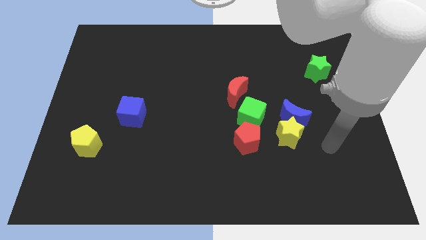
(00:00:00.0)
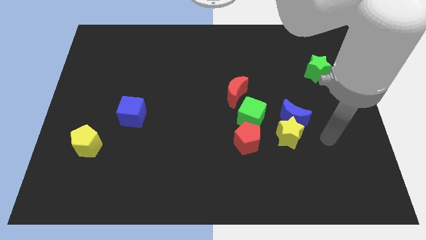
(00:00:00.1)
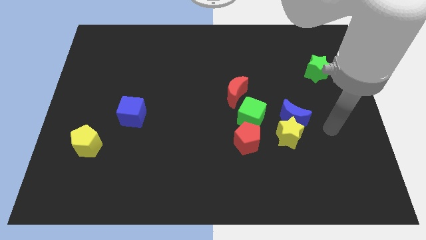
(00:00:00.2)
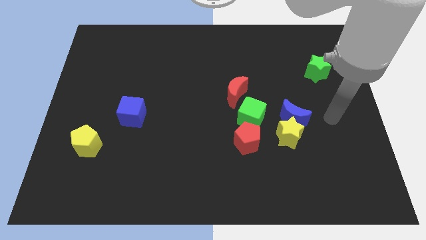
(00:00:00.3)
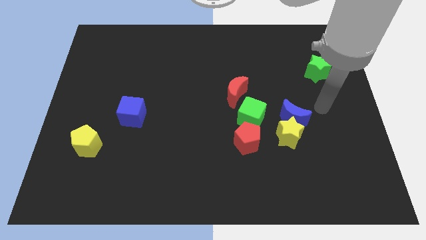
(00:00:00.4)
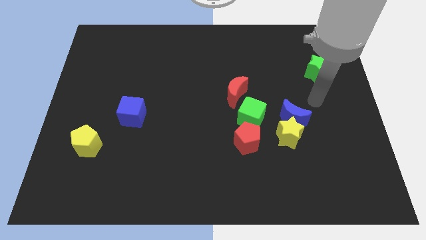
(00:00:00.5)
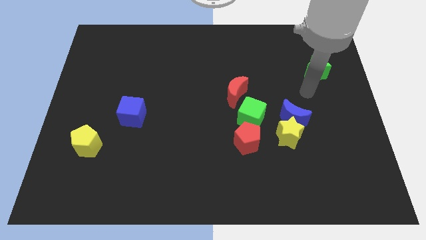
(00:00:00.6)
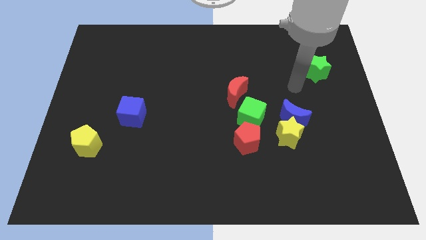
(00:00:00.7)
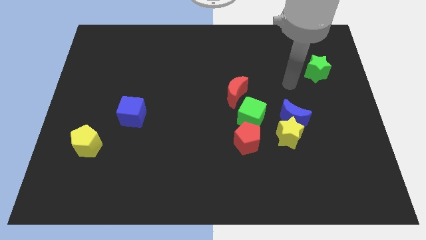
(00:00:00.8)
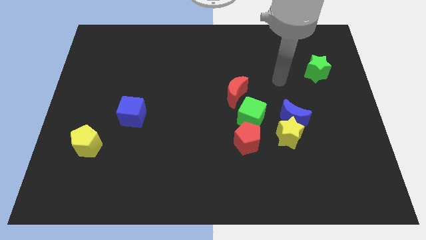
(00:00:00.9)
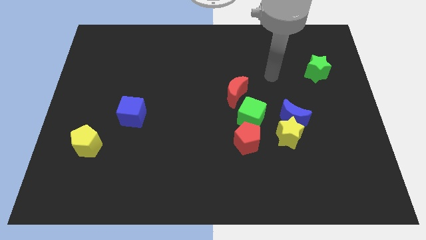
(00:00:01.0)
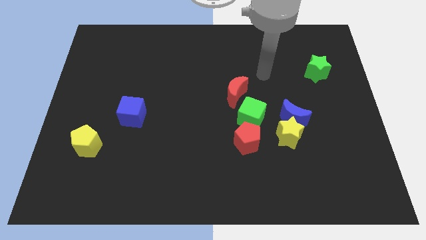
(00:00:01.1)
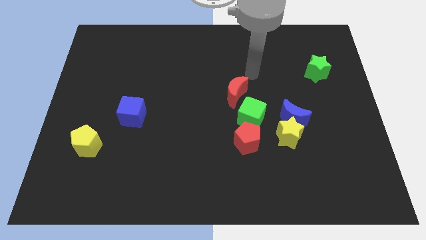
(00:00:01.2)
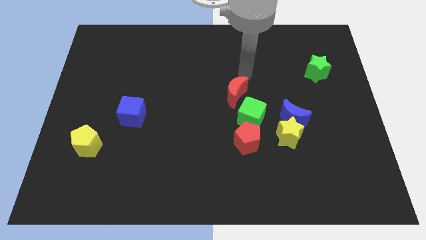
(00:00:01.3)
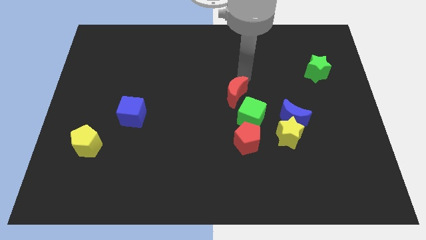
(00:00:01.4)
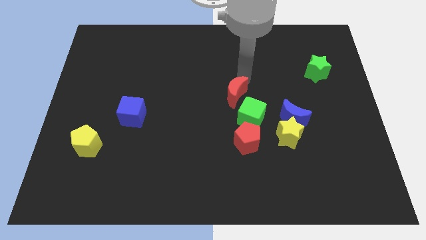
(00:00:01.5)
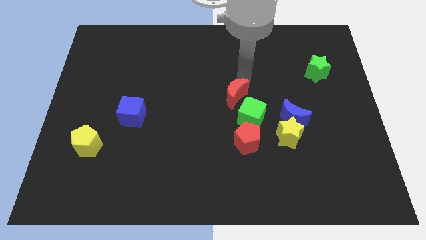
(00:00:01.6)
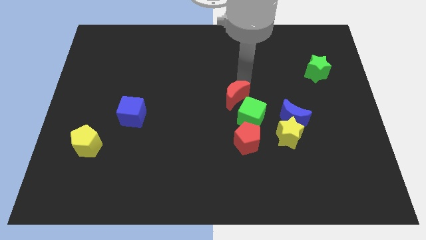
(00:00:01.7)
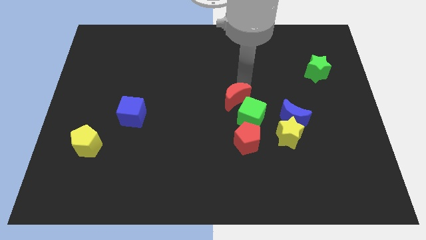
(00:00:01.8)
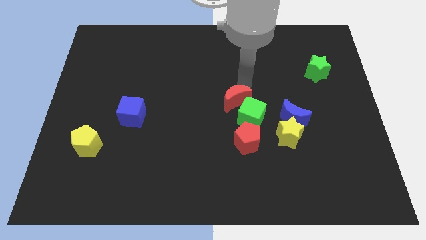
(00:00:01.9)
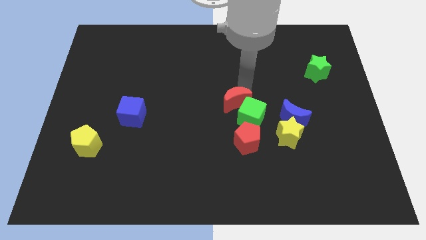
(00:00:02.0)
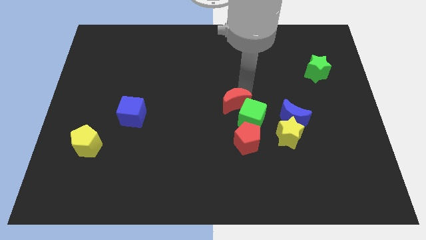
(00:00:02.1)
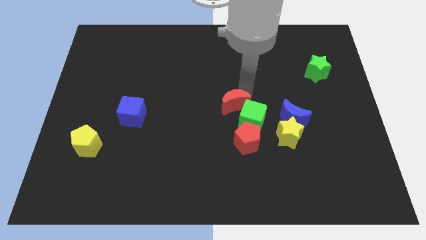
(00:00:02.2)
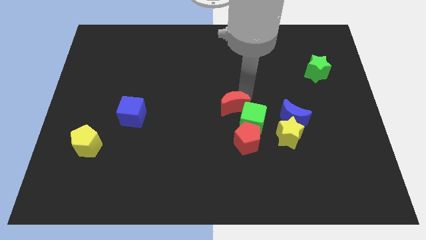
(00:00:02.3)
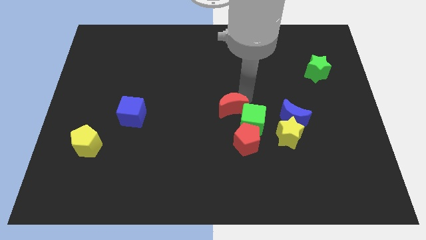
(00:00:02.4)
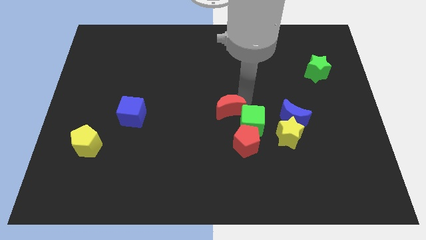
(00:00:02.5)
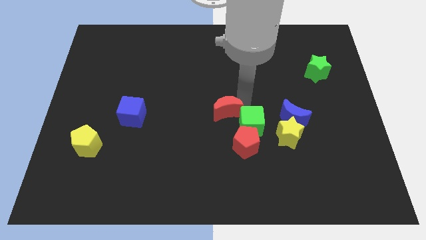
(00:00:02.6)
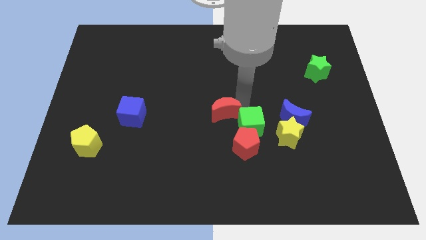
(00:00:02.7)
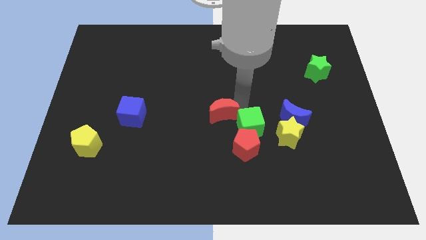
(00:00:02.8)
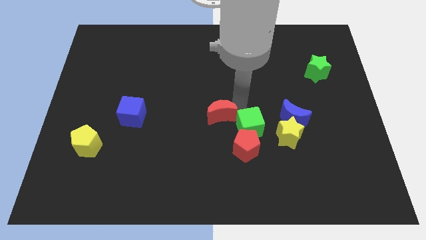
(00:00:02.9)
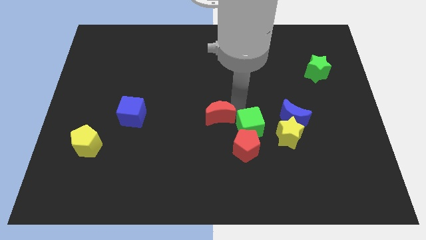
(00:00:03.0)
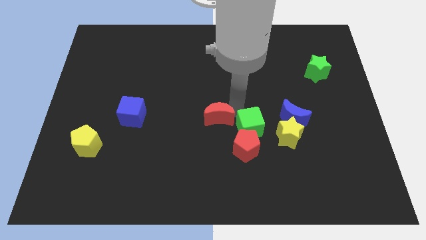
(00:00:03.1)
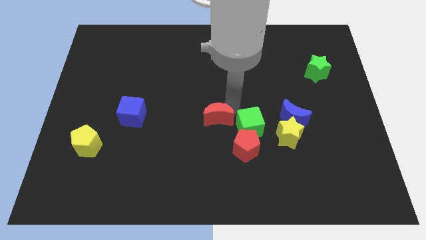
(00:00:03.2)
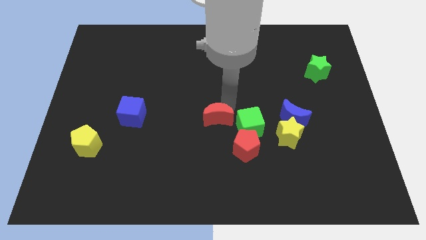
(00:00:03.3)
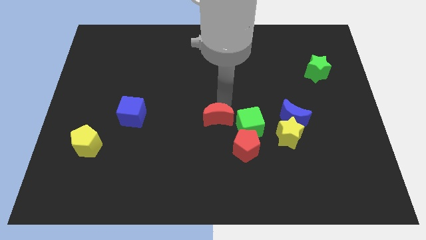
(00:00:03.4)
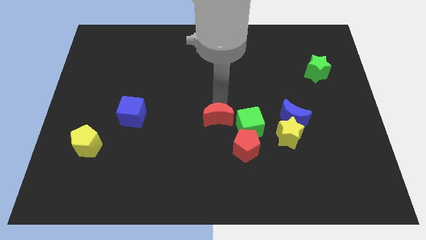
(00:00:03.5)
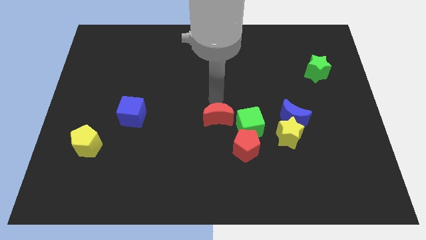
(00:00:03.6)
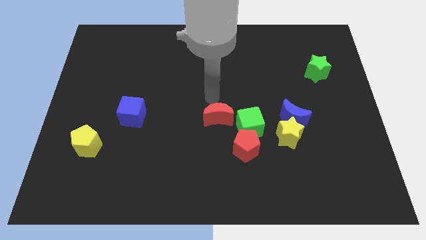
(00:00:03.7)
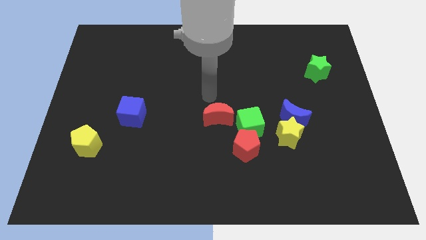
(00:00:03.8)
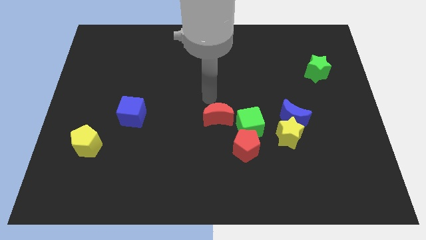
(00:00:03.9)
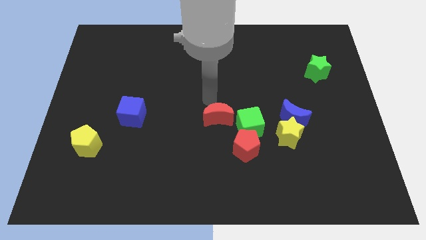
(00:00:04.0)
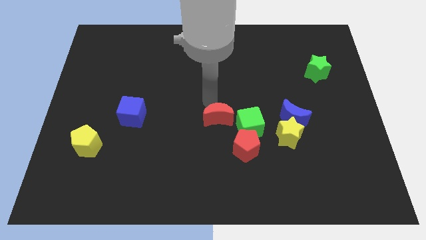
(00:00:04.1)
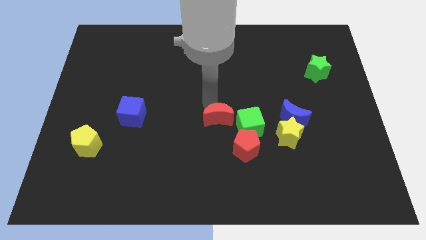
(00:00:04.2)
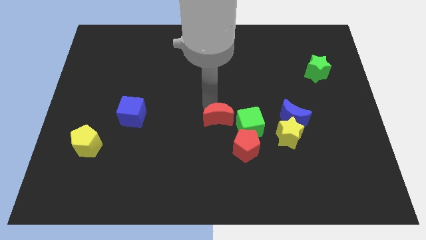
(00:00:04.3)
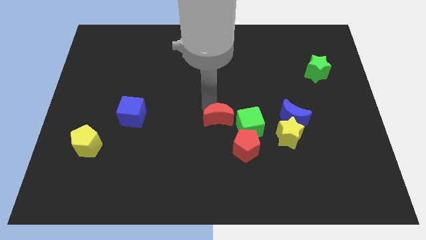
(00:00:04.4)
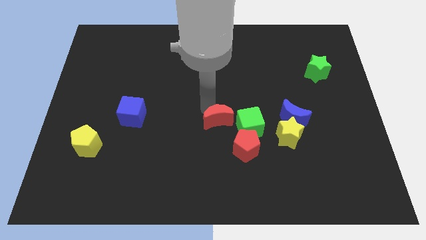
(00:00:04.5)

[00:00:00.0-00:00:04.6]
slightly move the red moon downwards

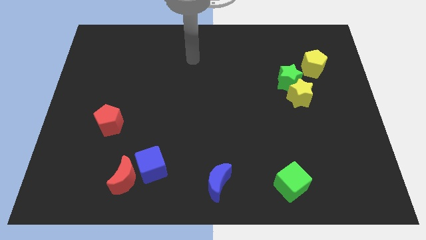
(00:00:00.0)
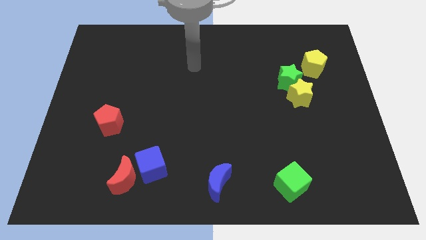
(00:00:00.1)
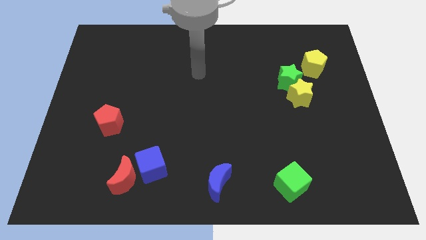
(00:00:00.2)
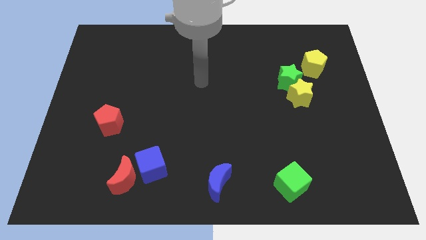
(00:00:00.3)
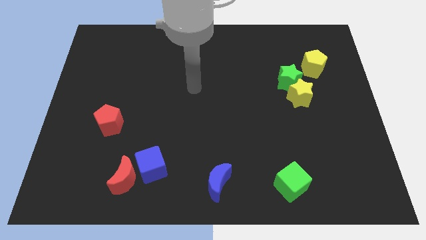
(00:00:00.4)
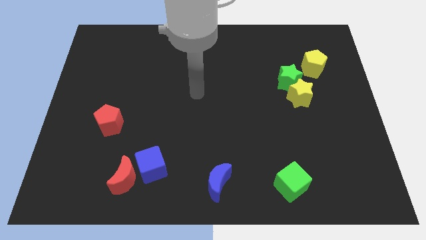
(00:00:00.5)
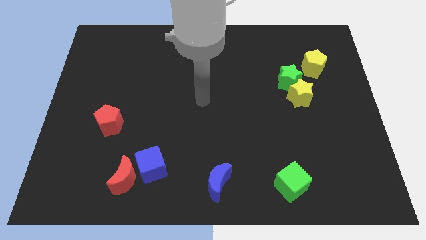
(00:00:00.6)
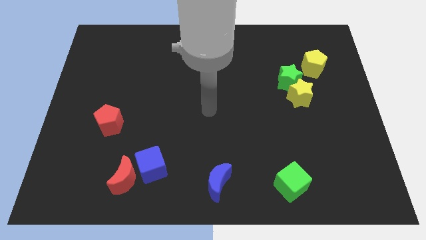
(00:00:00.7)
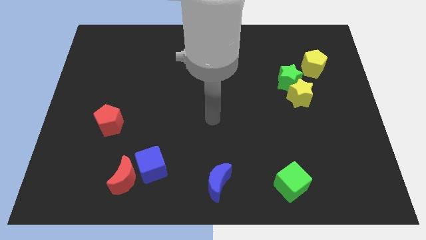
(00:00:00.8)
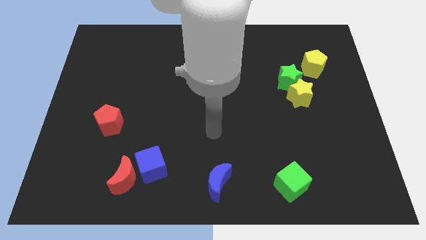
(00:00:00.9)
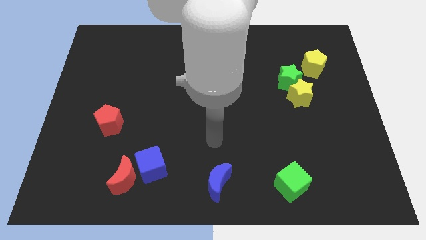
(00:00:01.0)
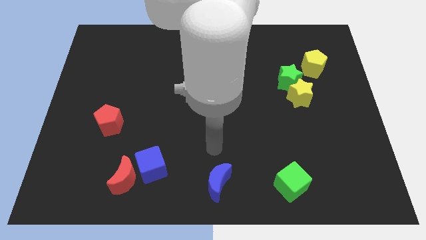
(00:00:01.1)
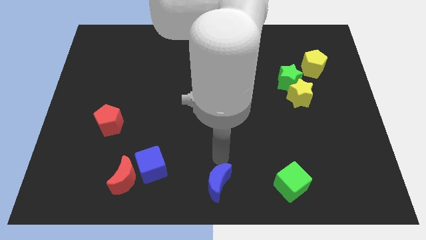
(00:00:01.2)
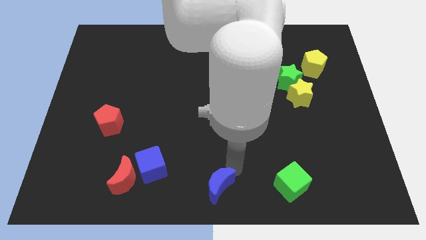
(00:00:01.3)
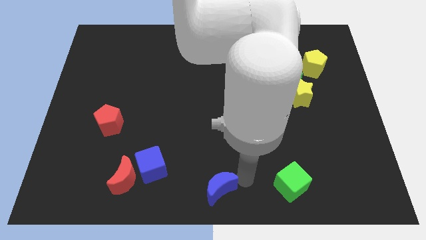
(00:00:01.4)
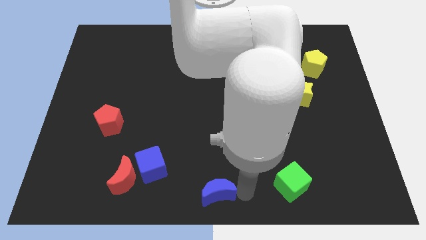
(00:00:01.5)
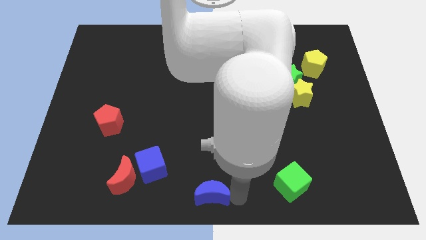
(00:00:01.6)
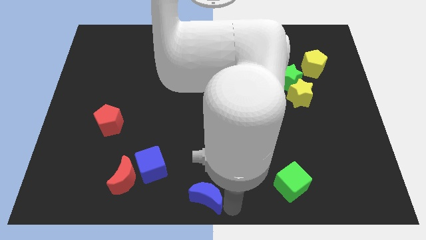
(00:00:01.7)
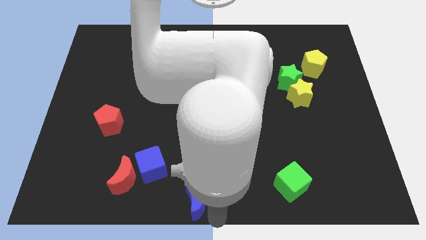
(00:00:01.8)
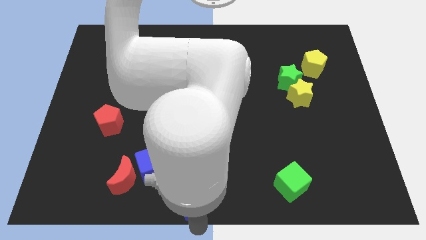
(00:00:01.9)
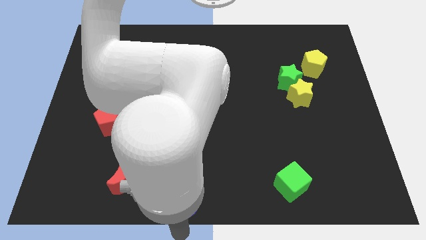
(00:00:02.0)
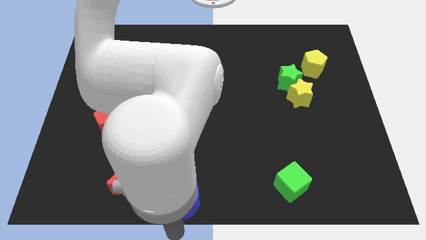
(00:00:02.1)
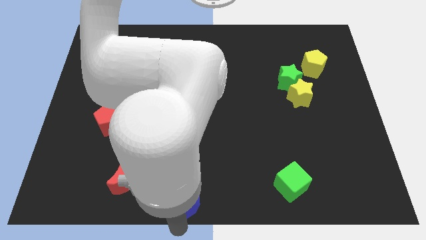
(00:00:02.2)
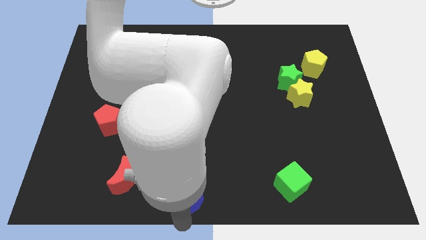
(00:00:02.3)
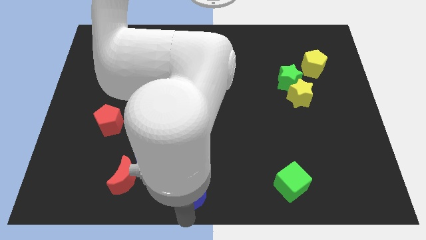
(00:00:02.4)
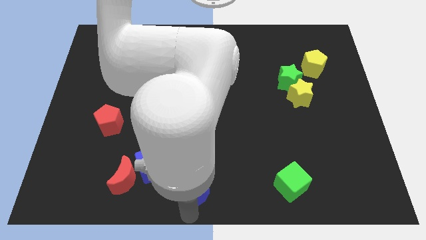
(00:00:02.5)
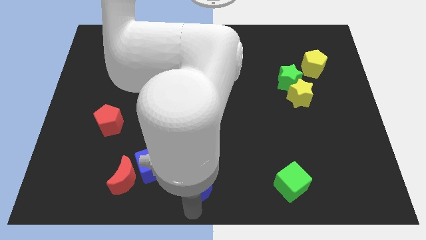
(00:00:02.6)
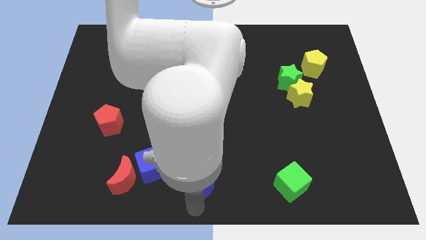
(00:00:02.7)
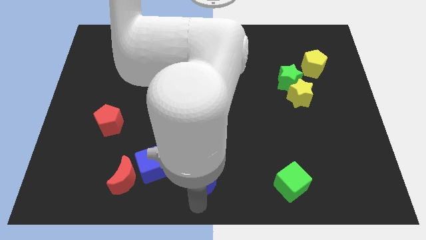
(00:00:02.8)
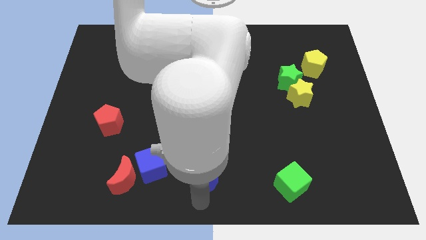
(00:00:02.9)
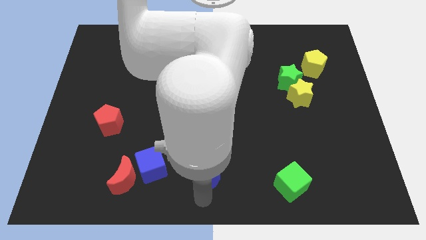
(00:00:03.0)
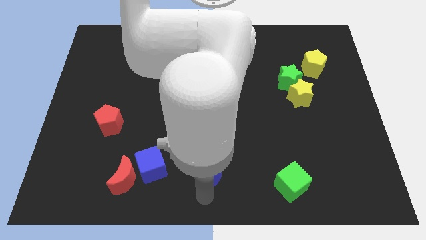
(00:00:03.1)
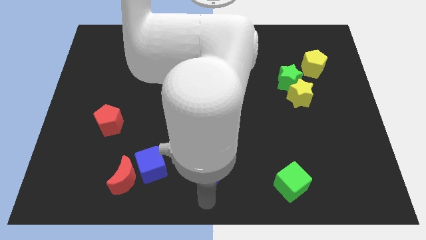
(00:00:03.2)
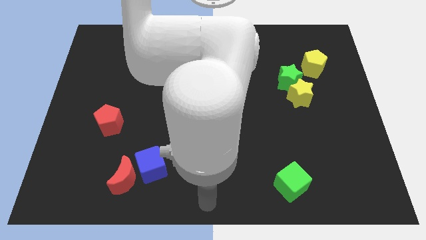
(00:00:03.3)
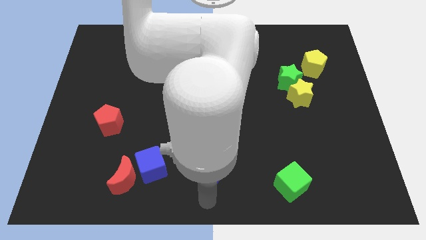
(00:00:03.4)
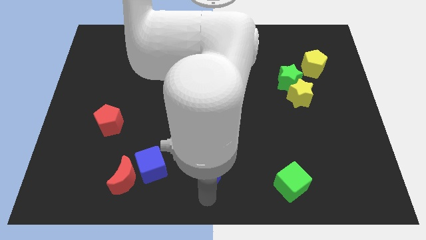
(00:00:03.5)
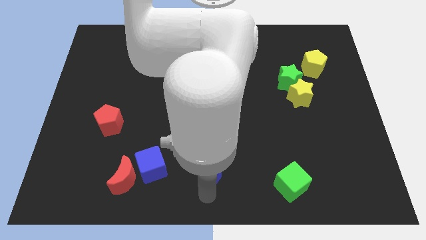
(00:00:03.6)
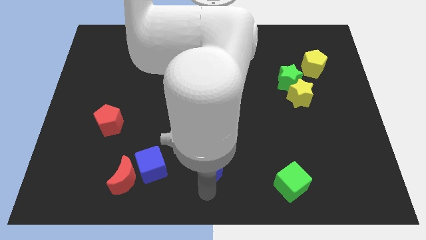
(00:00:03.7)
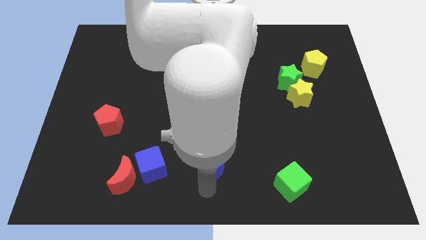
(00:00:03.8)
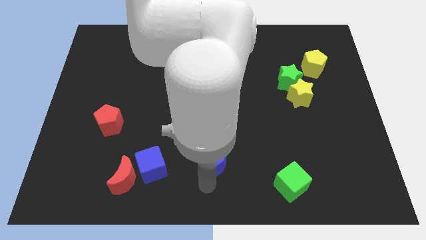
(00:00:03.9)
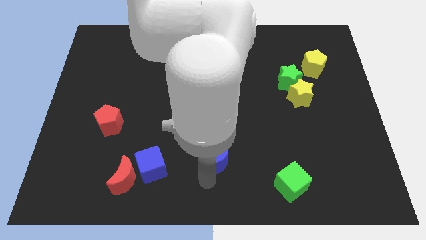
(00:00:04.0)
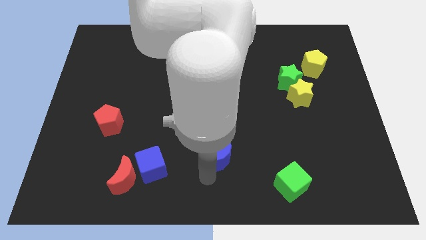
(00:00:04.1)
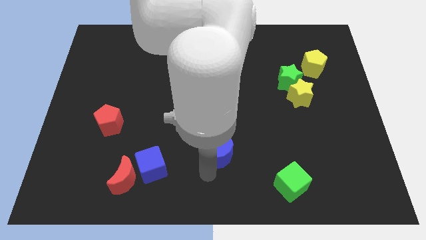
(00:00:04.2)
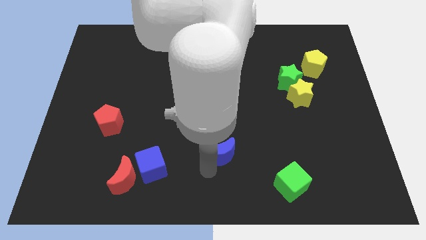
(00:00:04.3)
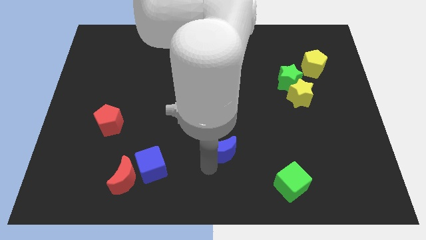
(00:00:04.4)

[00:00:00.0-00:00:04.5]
slide the blue moon slightly up
